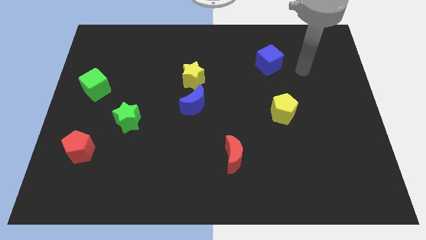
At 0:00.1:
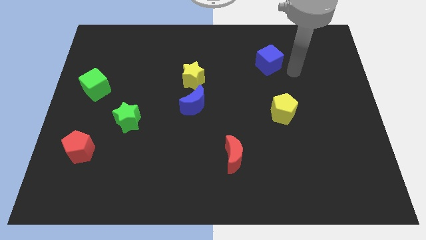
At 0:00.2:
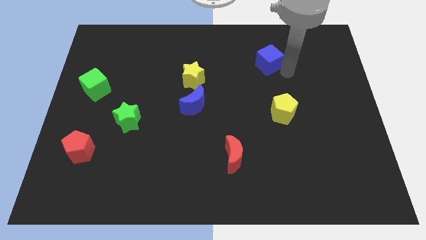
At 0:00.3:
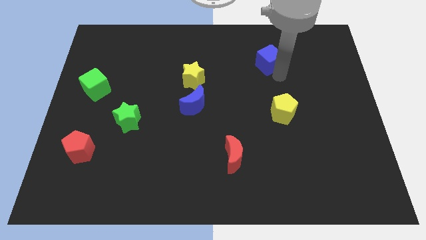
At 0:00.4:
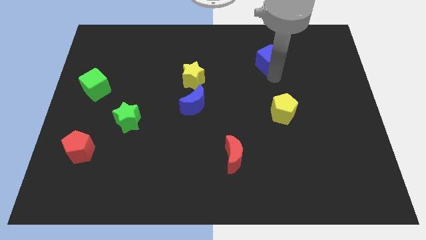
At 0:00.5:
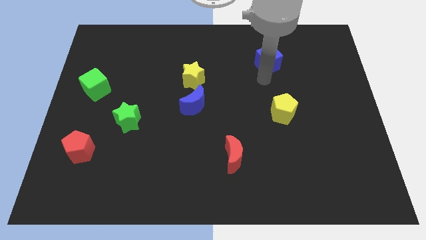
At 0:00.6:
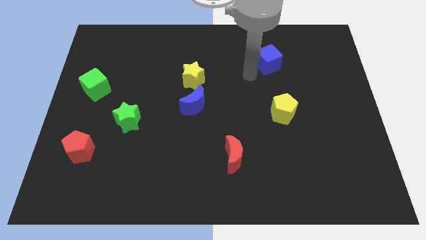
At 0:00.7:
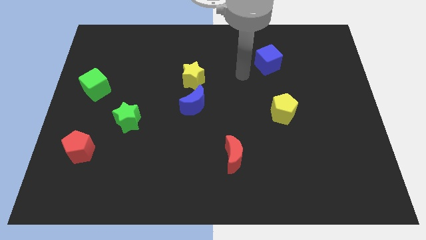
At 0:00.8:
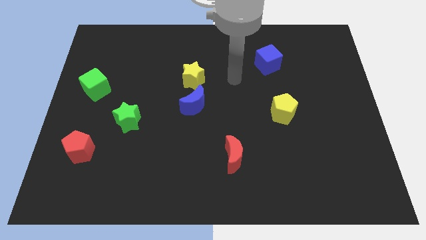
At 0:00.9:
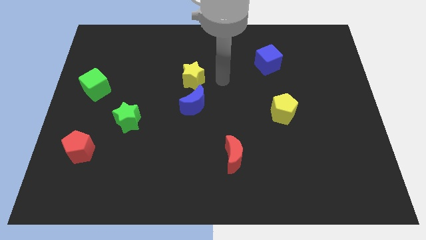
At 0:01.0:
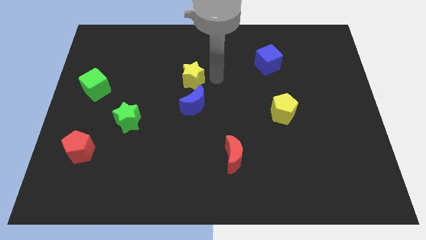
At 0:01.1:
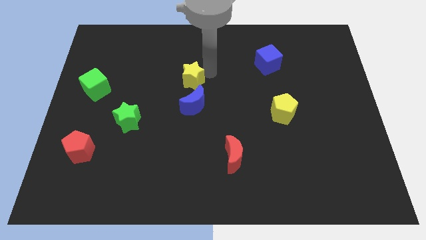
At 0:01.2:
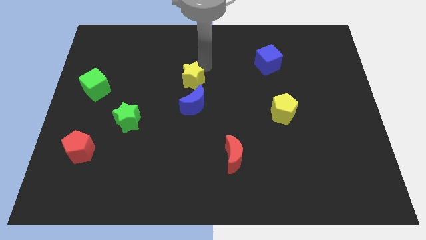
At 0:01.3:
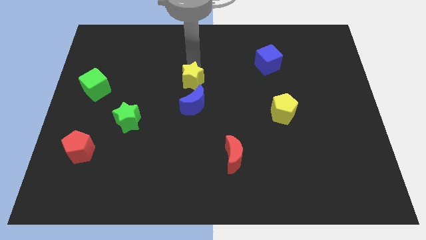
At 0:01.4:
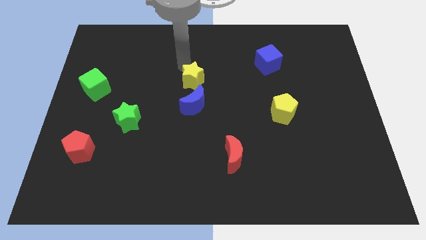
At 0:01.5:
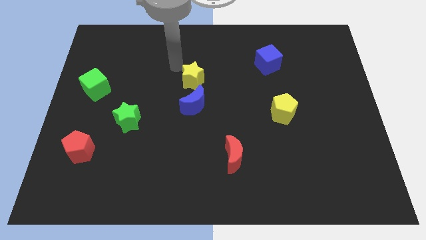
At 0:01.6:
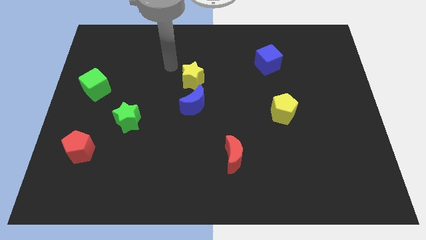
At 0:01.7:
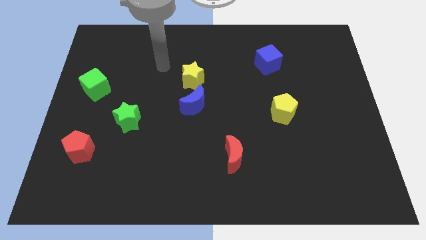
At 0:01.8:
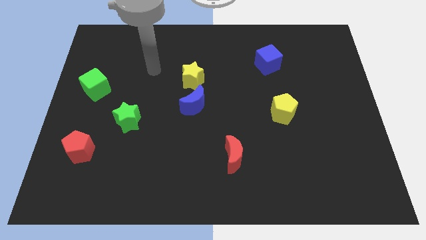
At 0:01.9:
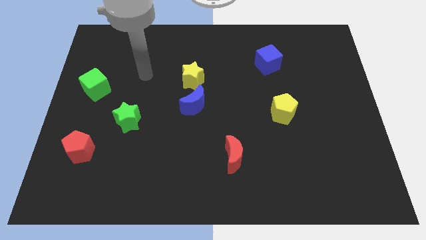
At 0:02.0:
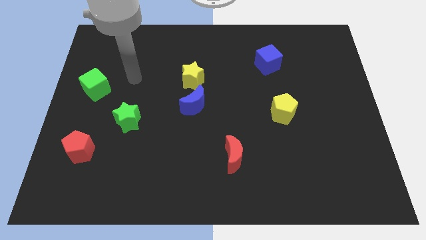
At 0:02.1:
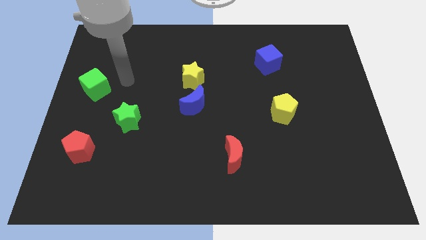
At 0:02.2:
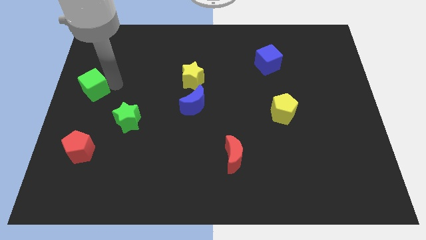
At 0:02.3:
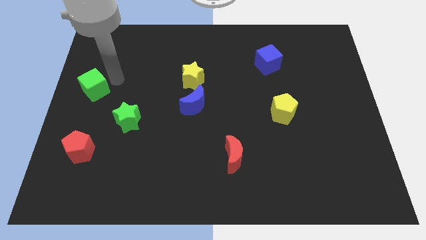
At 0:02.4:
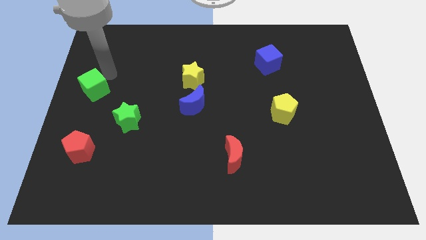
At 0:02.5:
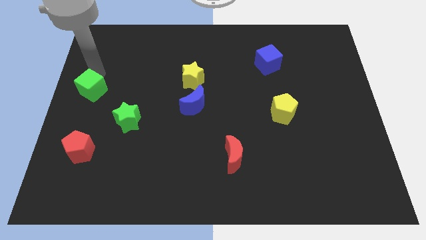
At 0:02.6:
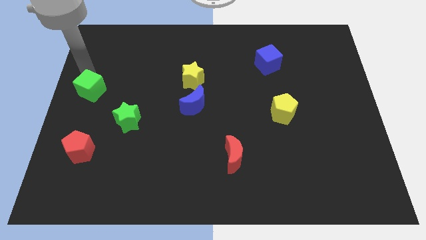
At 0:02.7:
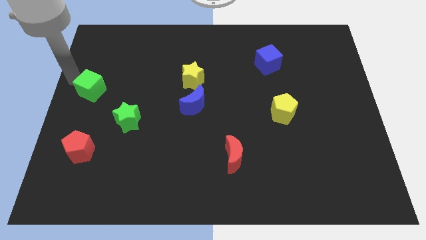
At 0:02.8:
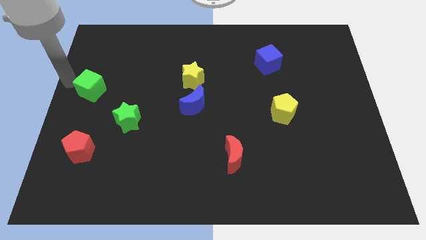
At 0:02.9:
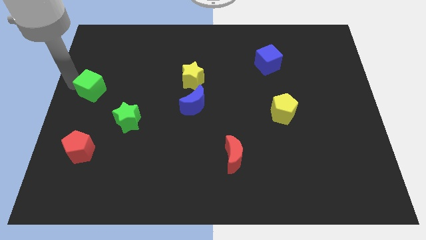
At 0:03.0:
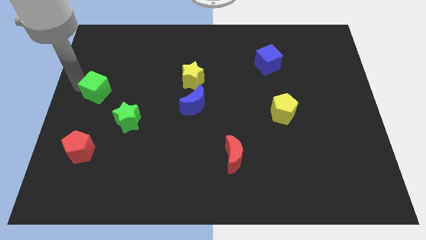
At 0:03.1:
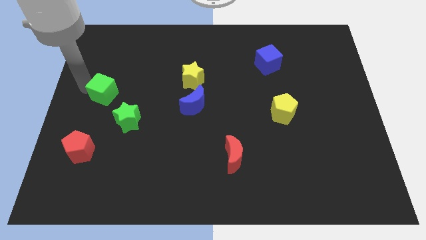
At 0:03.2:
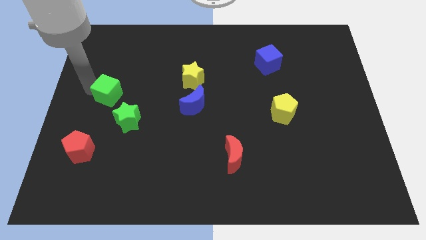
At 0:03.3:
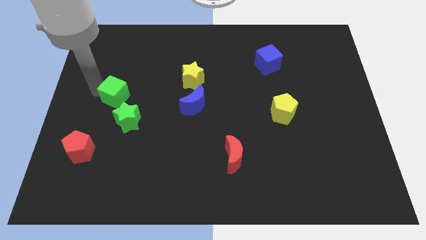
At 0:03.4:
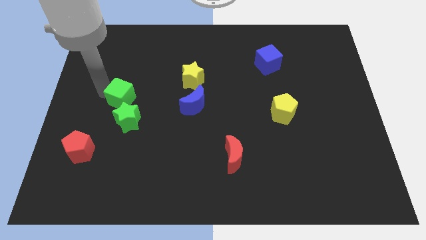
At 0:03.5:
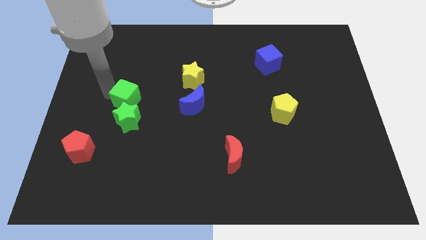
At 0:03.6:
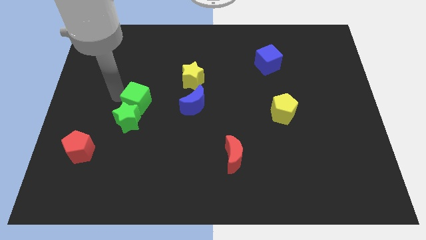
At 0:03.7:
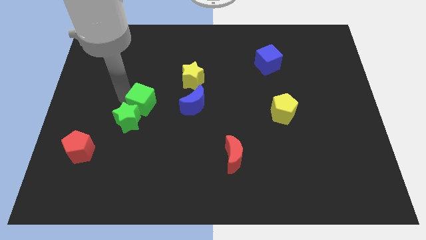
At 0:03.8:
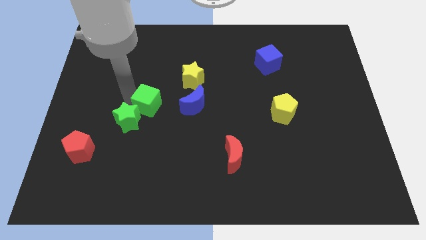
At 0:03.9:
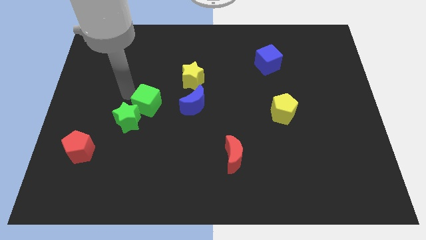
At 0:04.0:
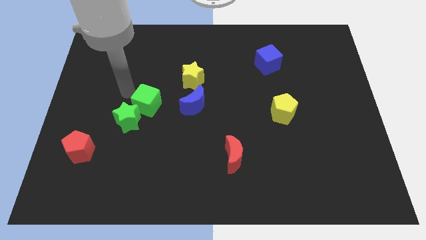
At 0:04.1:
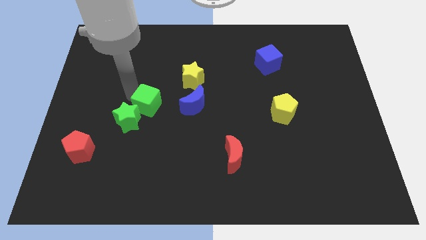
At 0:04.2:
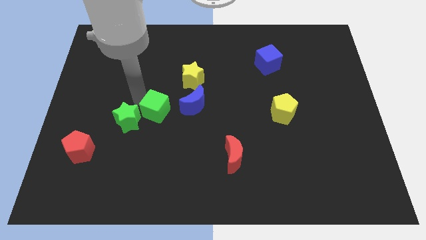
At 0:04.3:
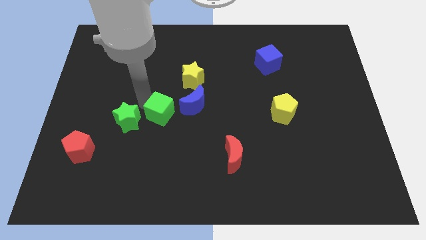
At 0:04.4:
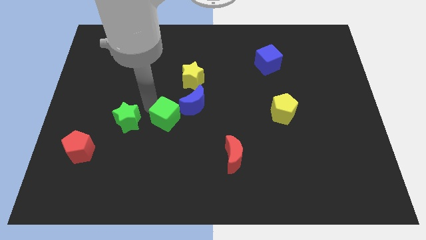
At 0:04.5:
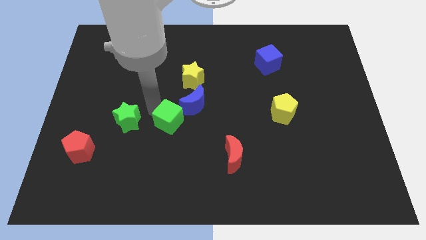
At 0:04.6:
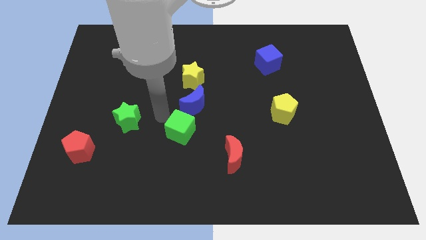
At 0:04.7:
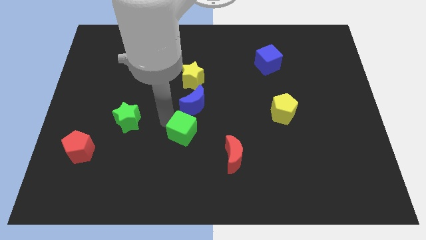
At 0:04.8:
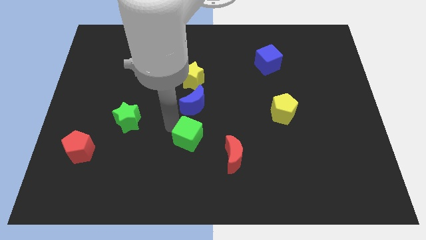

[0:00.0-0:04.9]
push the green cube to the top left side of the red moon

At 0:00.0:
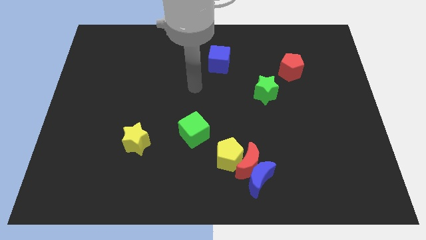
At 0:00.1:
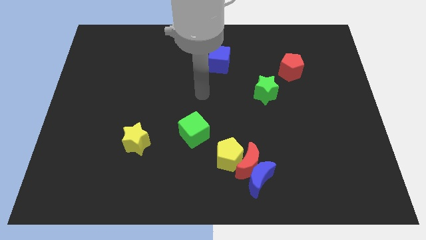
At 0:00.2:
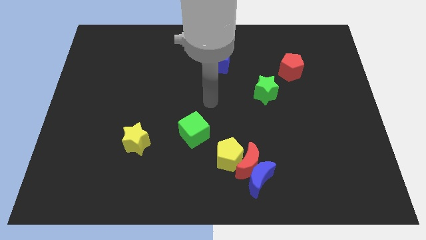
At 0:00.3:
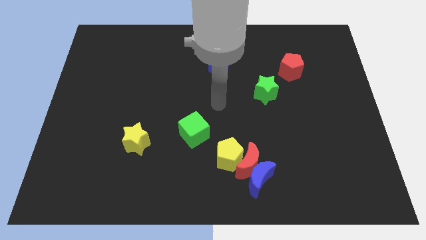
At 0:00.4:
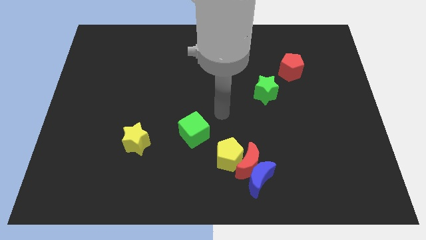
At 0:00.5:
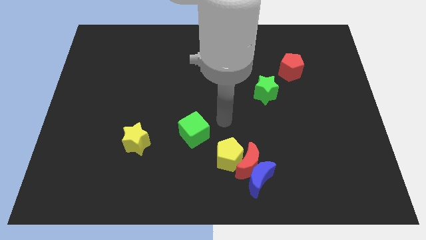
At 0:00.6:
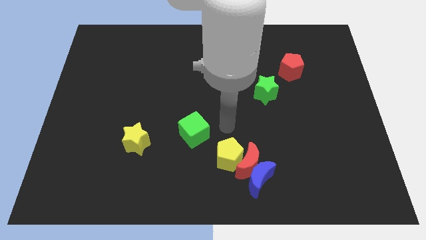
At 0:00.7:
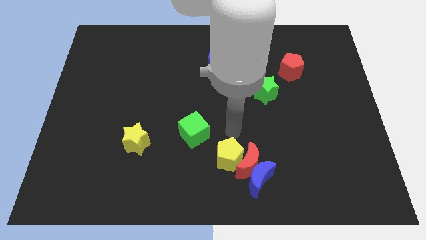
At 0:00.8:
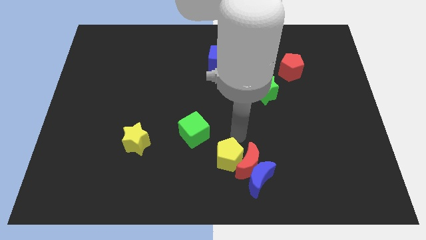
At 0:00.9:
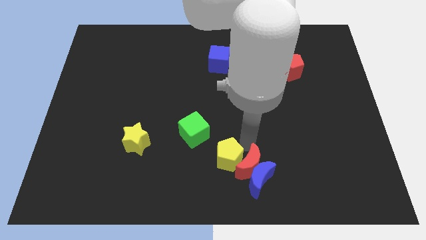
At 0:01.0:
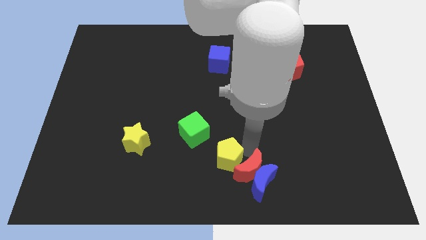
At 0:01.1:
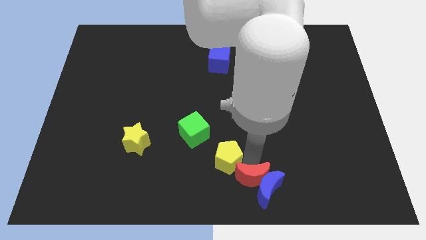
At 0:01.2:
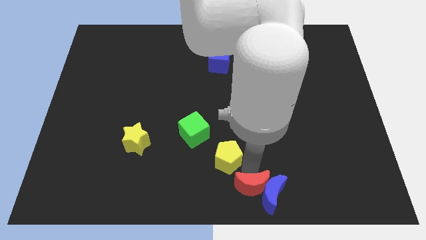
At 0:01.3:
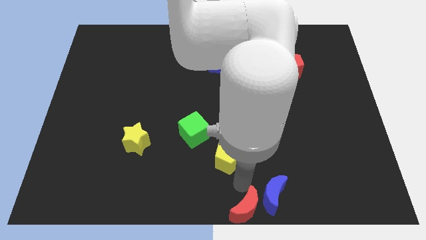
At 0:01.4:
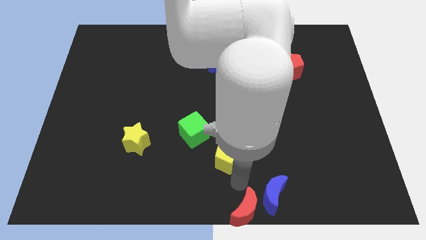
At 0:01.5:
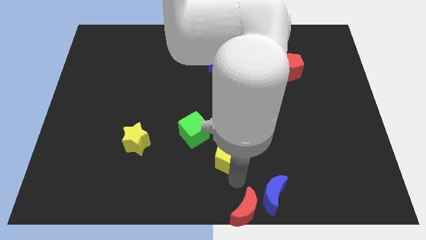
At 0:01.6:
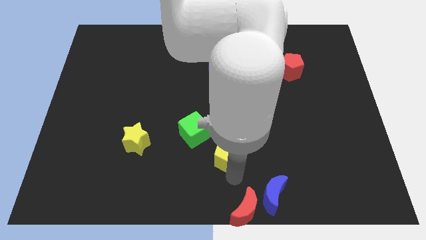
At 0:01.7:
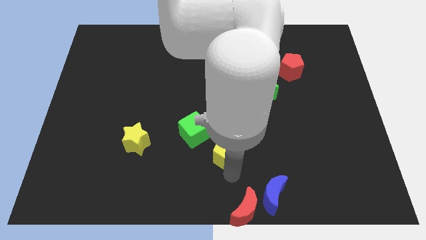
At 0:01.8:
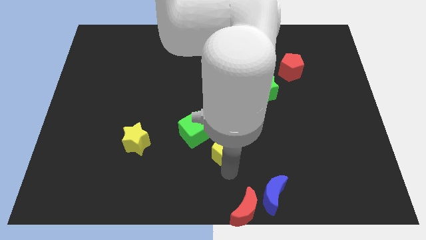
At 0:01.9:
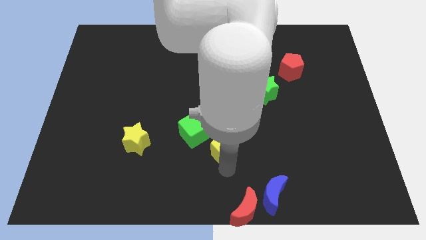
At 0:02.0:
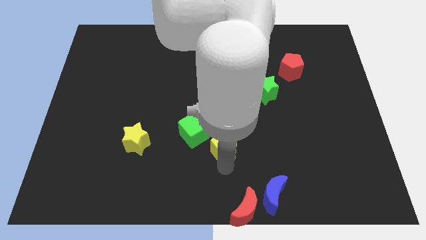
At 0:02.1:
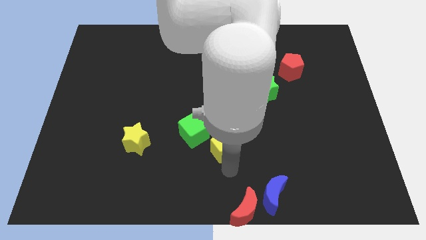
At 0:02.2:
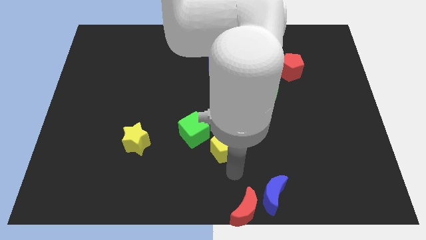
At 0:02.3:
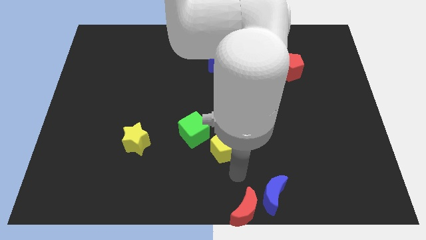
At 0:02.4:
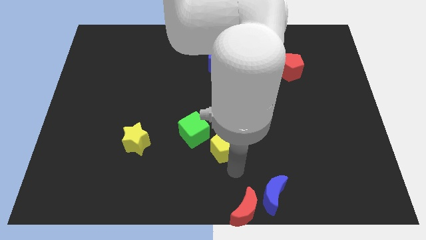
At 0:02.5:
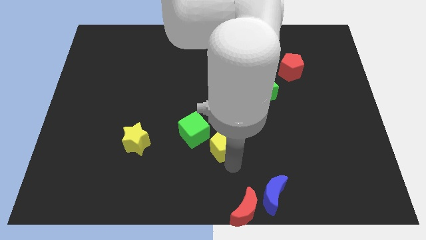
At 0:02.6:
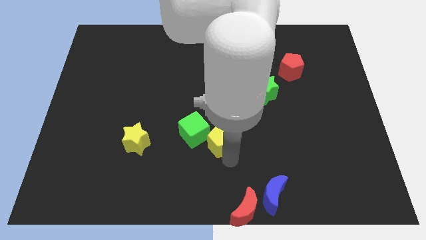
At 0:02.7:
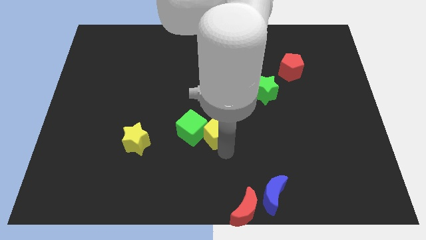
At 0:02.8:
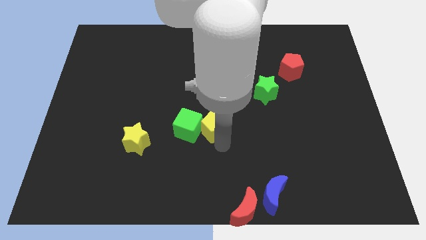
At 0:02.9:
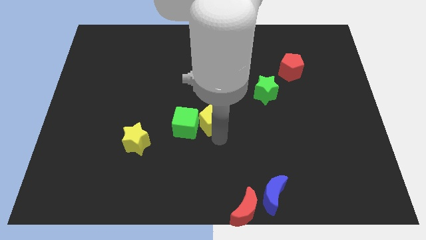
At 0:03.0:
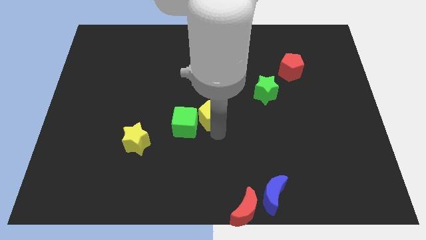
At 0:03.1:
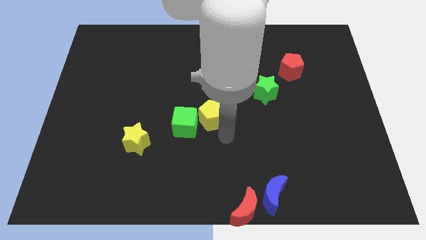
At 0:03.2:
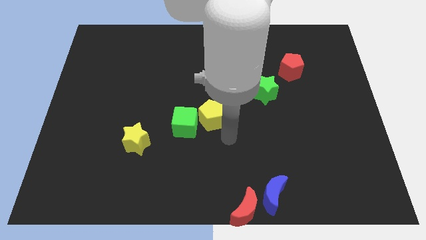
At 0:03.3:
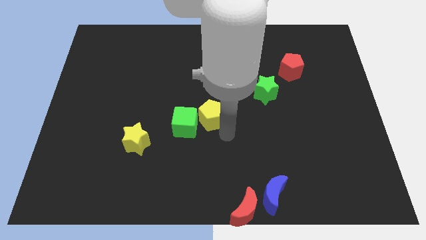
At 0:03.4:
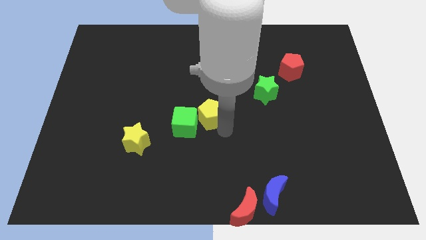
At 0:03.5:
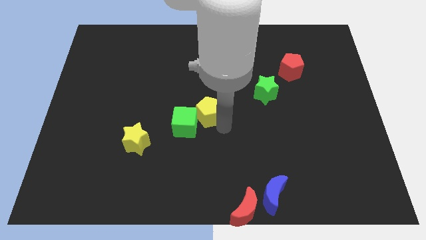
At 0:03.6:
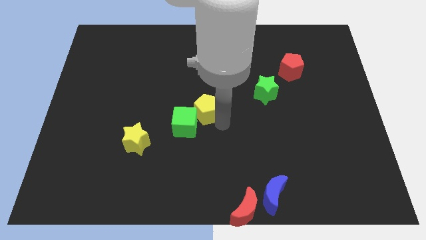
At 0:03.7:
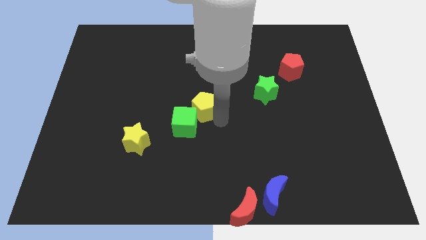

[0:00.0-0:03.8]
push the yellow pentagon to the top side of the green cube
